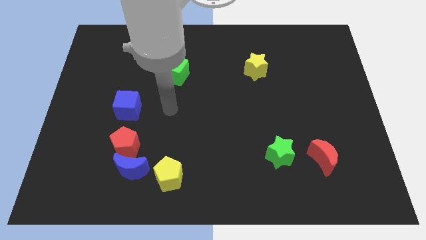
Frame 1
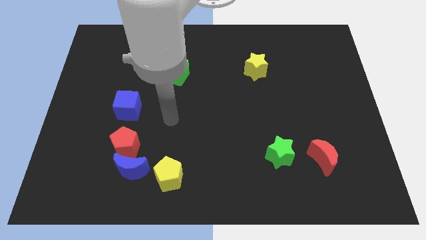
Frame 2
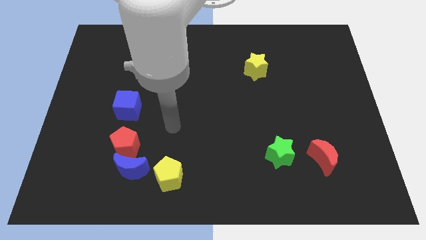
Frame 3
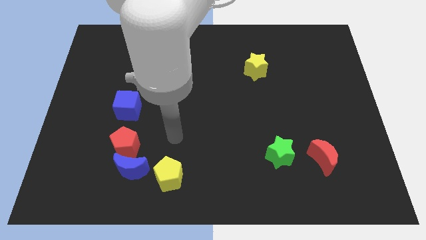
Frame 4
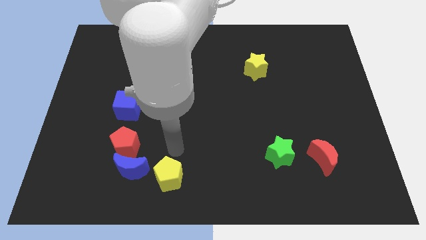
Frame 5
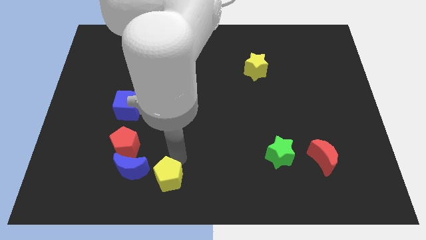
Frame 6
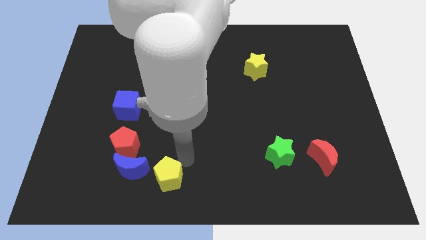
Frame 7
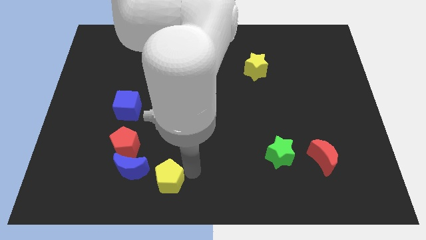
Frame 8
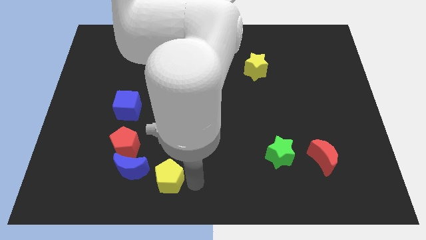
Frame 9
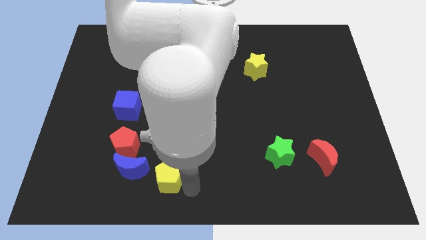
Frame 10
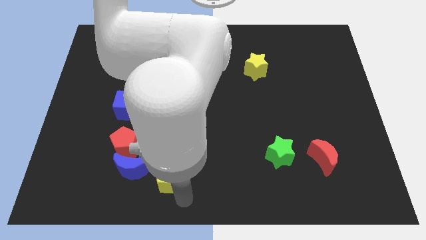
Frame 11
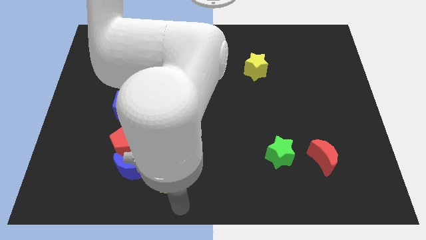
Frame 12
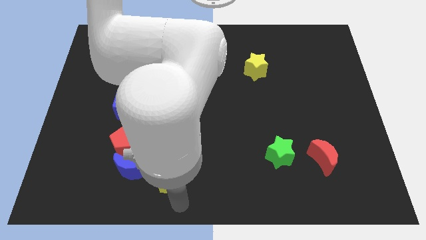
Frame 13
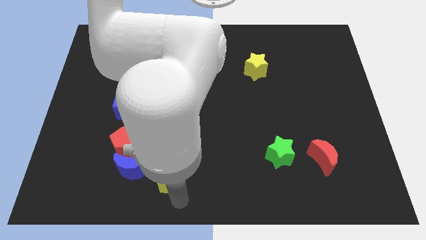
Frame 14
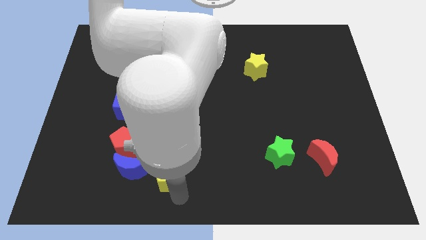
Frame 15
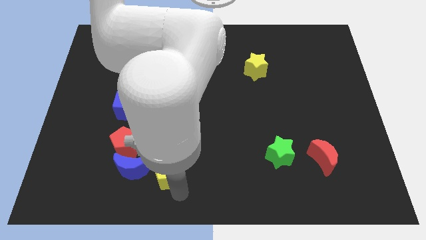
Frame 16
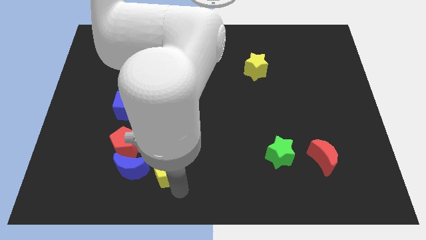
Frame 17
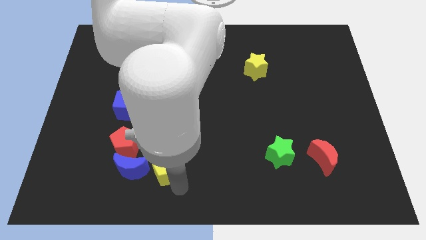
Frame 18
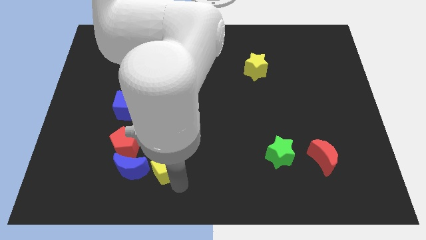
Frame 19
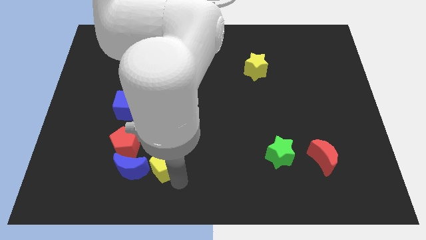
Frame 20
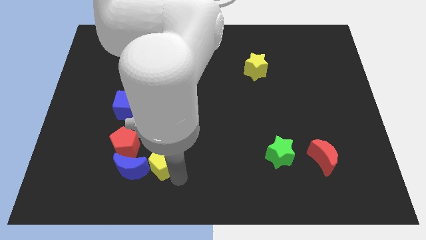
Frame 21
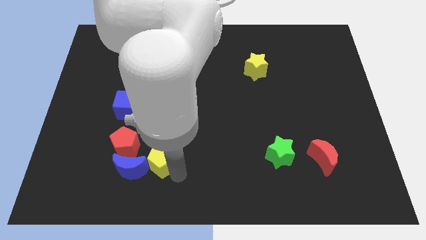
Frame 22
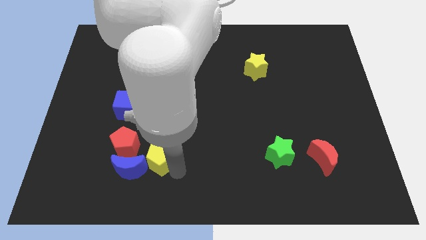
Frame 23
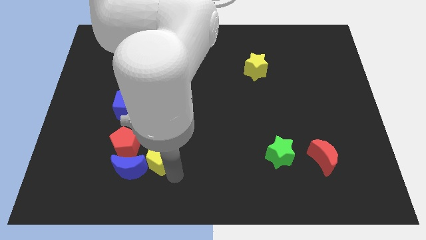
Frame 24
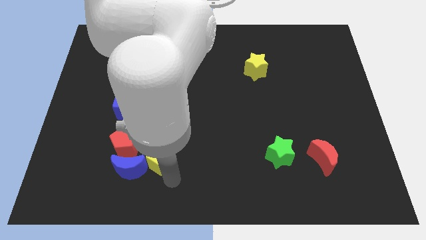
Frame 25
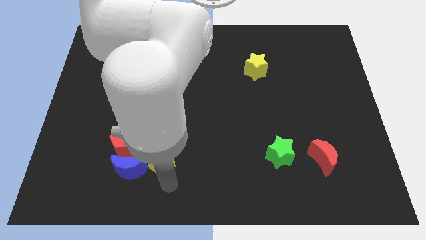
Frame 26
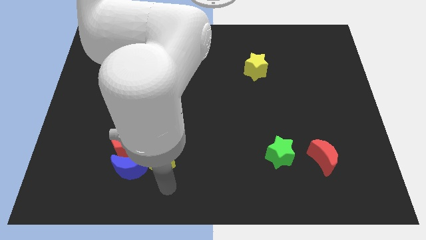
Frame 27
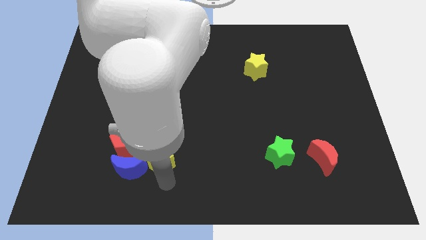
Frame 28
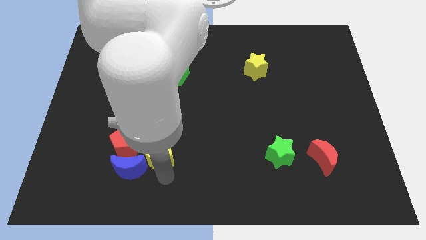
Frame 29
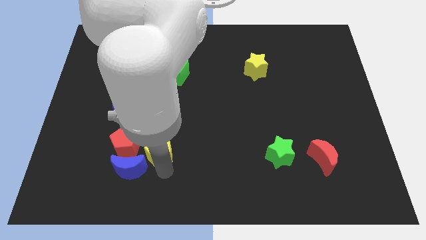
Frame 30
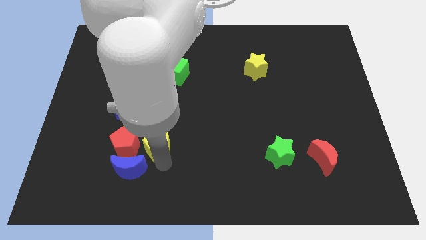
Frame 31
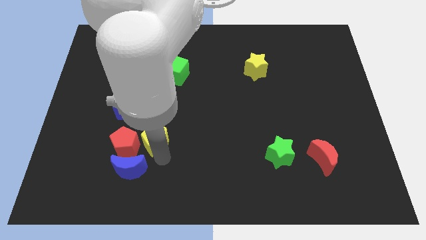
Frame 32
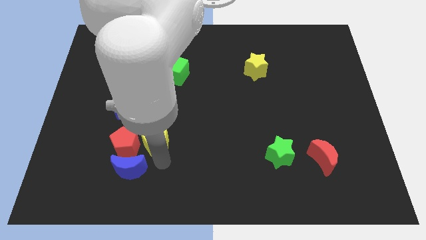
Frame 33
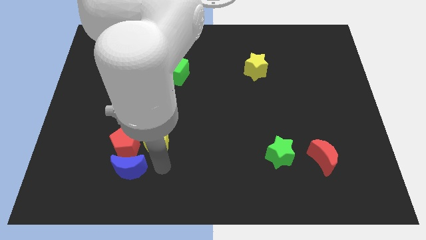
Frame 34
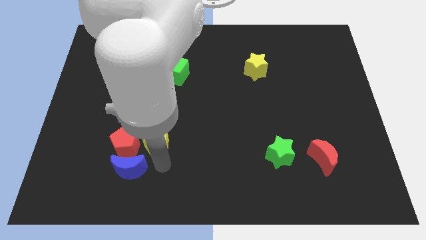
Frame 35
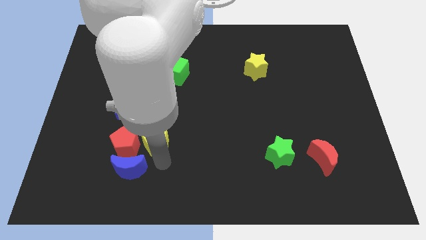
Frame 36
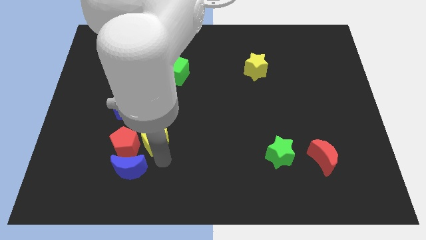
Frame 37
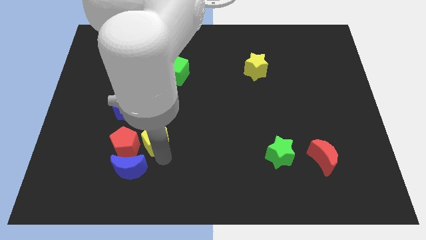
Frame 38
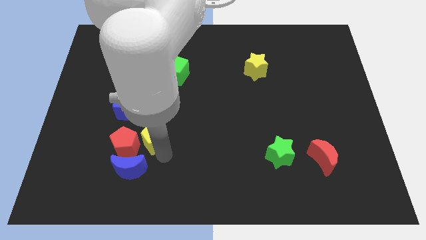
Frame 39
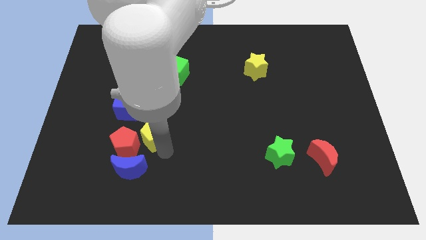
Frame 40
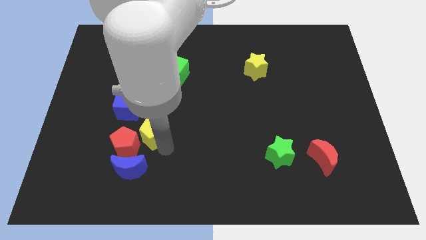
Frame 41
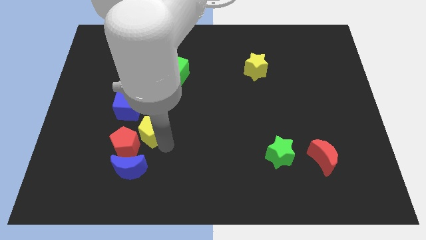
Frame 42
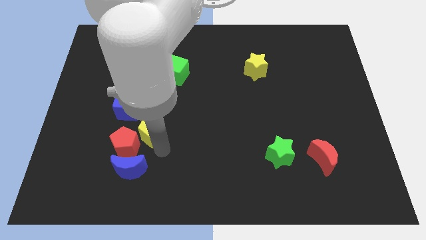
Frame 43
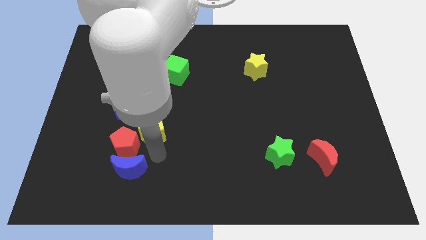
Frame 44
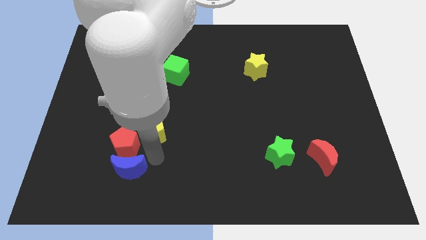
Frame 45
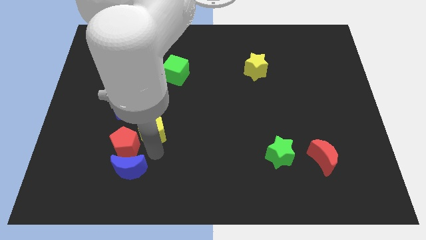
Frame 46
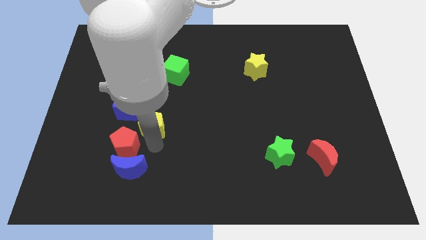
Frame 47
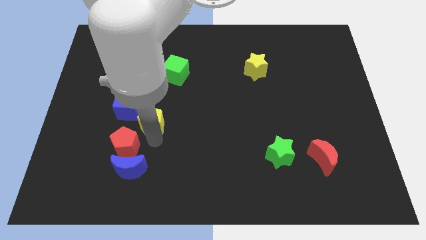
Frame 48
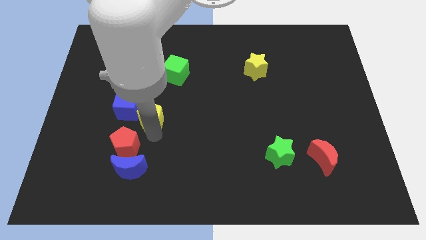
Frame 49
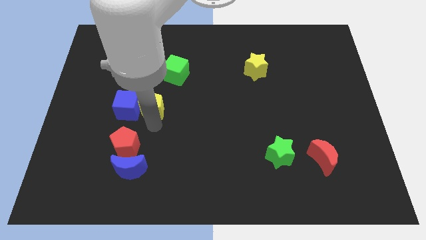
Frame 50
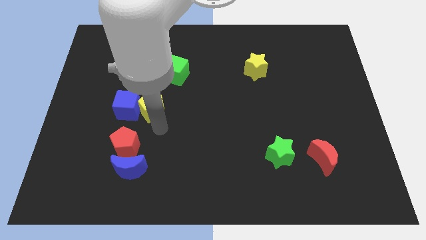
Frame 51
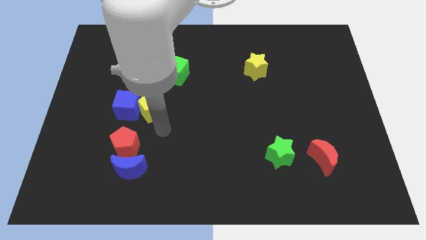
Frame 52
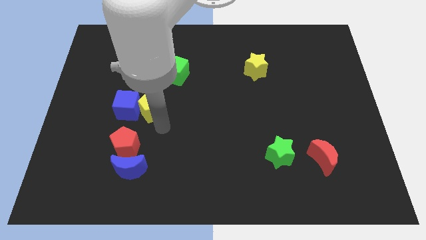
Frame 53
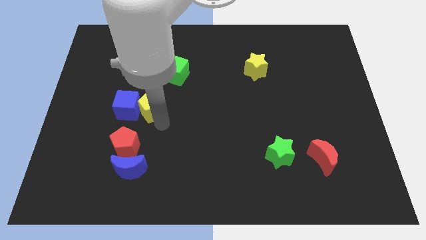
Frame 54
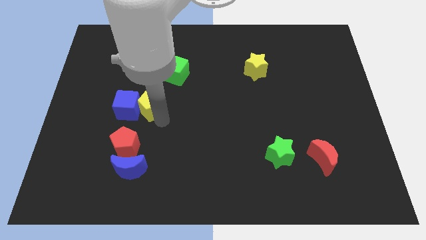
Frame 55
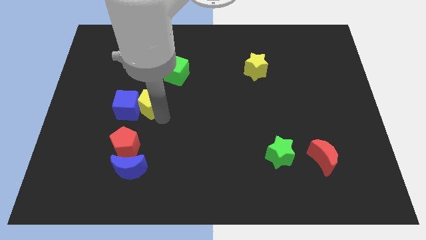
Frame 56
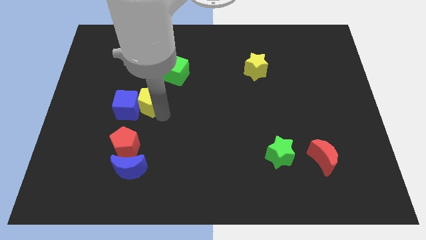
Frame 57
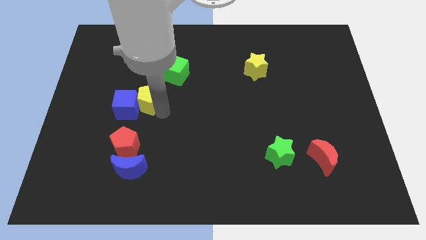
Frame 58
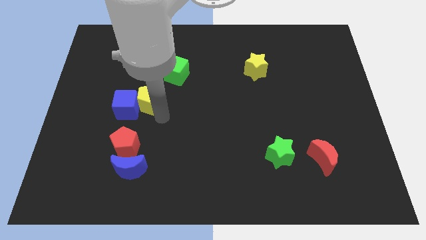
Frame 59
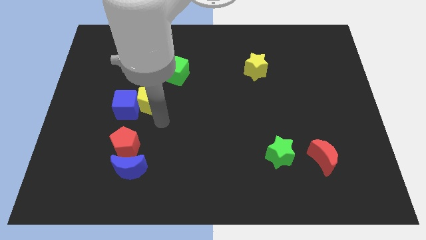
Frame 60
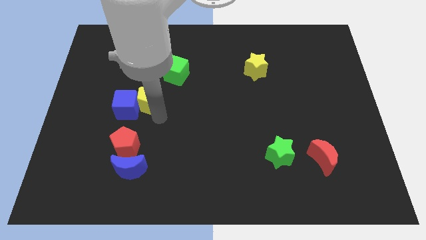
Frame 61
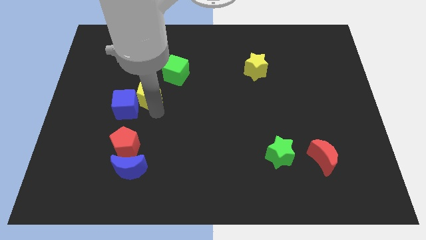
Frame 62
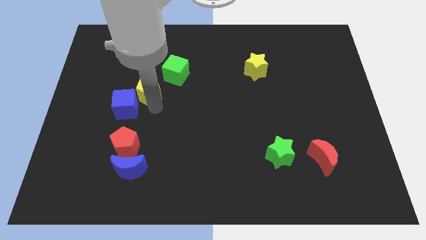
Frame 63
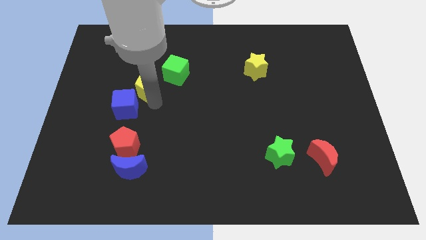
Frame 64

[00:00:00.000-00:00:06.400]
move the yellow pentagon to the top of the blue cube

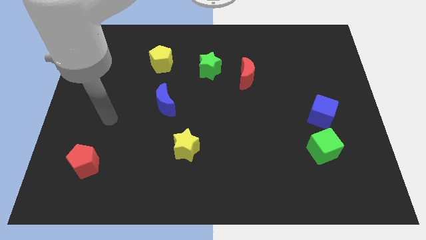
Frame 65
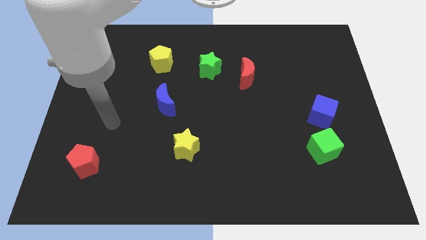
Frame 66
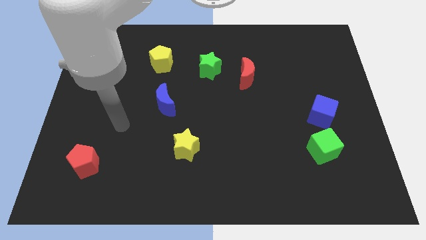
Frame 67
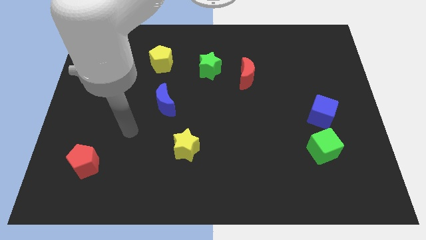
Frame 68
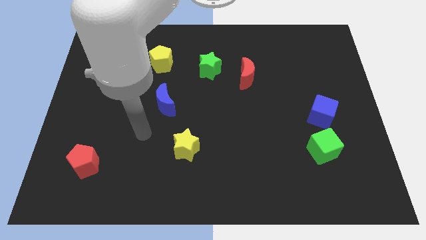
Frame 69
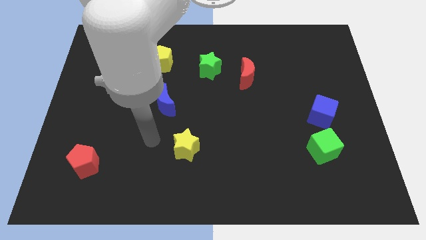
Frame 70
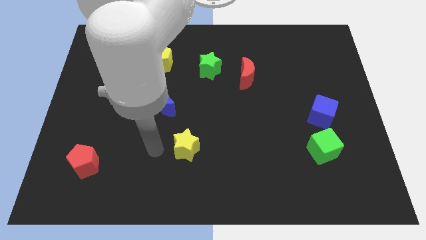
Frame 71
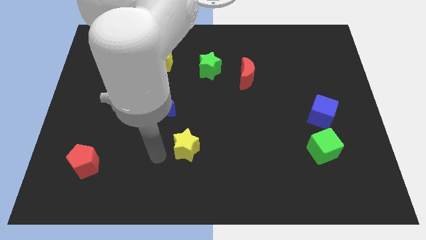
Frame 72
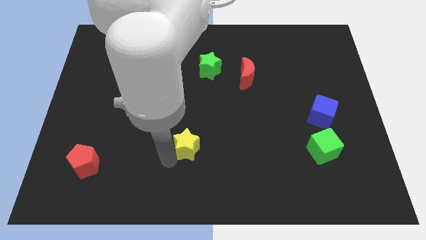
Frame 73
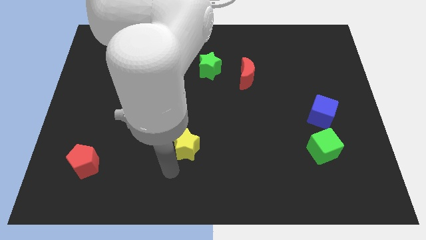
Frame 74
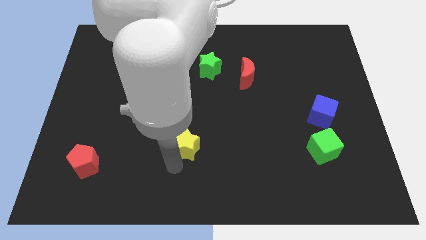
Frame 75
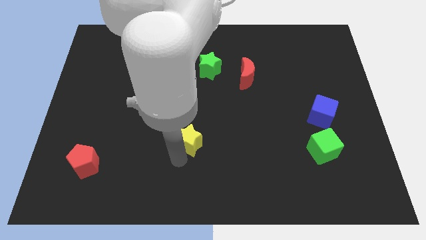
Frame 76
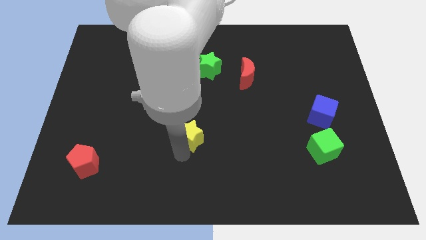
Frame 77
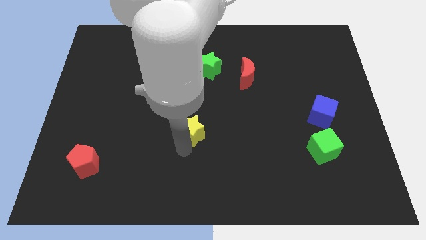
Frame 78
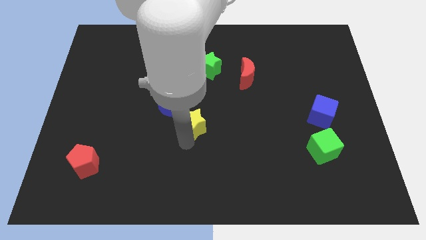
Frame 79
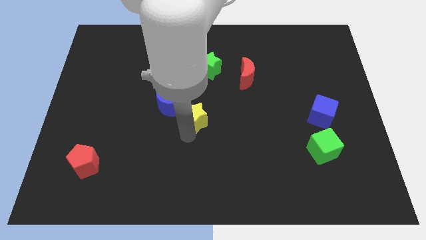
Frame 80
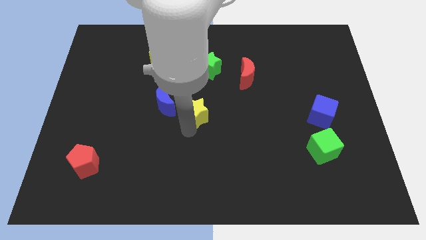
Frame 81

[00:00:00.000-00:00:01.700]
put the yellow star to the bottom of the green star
